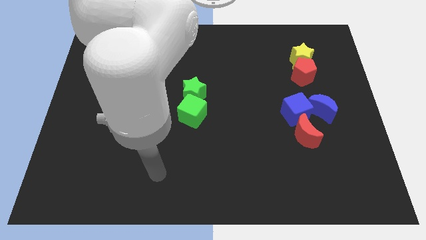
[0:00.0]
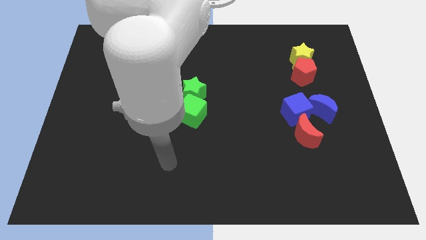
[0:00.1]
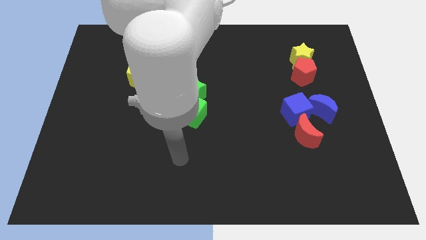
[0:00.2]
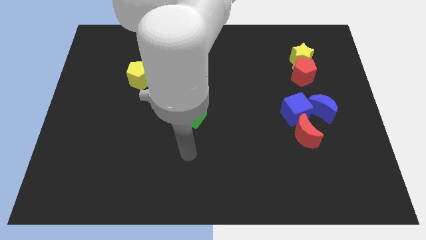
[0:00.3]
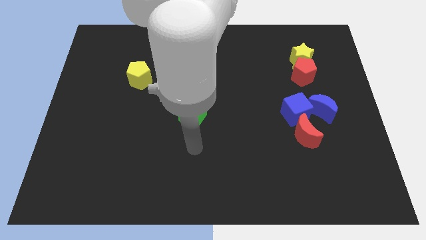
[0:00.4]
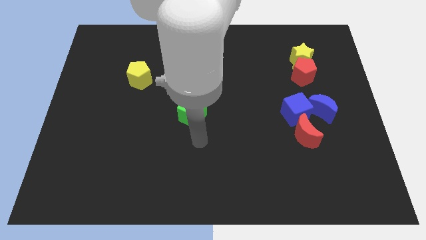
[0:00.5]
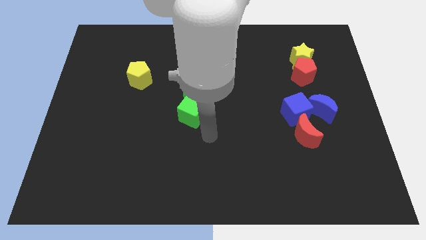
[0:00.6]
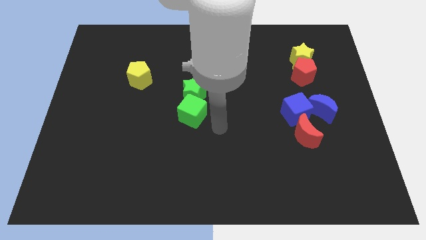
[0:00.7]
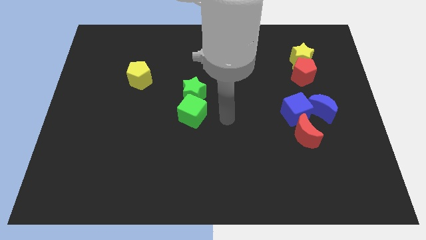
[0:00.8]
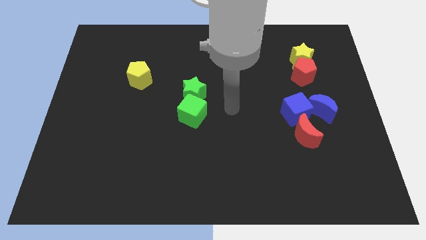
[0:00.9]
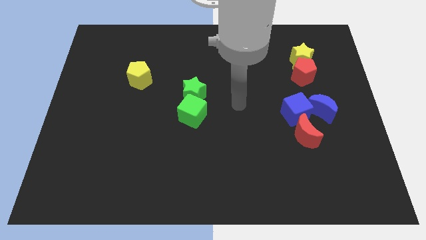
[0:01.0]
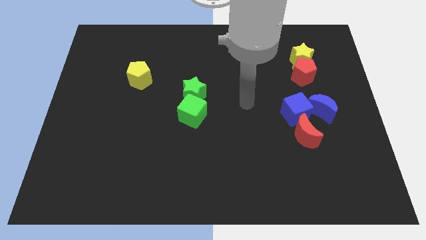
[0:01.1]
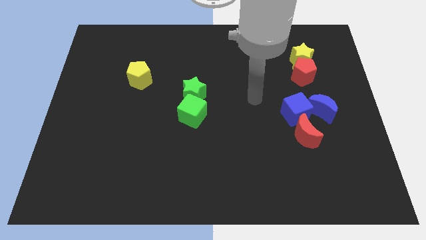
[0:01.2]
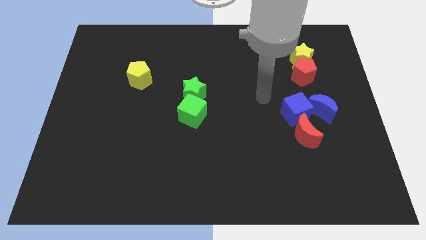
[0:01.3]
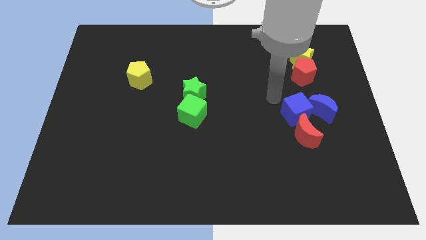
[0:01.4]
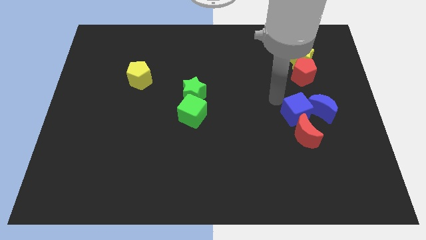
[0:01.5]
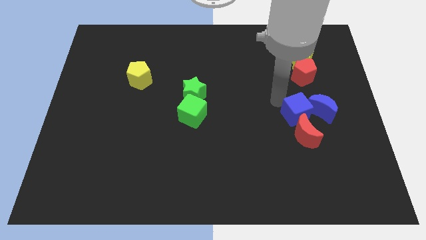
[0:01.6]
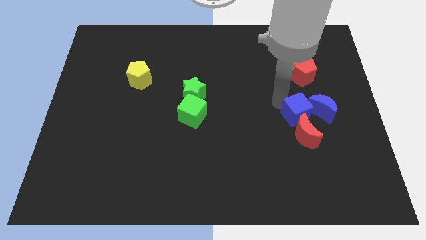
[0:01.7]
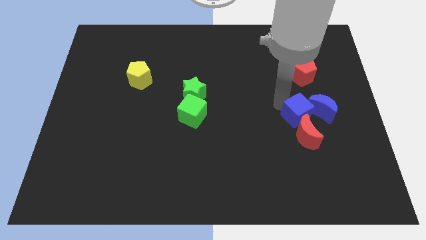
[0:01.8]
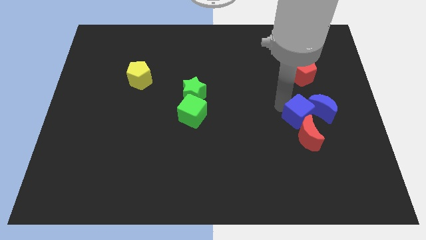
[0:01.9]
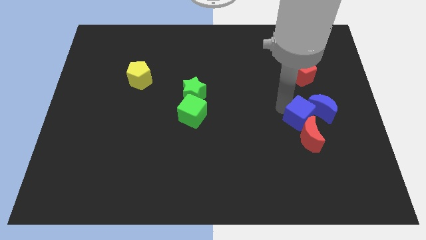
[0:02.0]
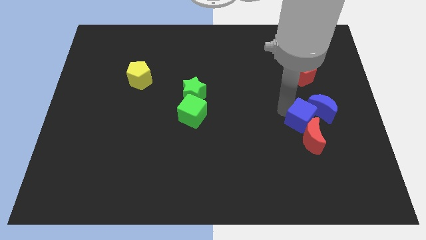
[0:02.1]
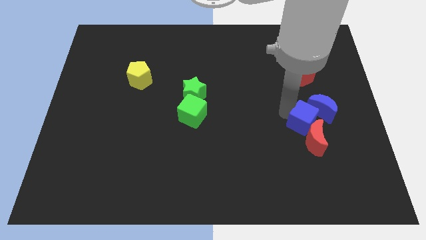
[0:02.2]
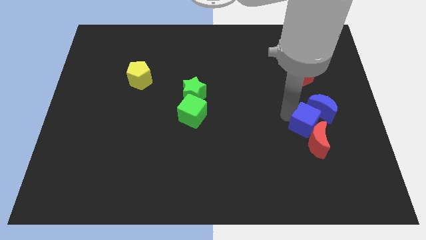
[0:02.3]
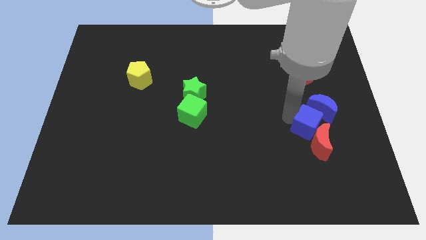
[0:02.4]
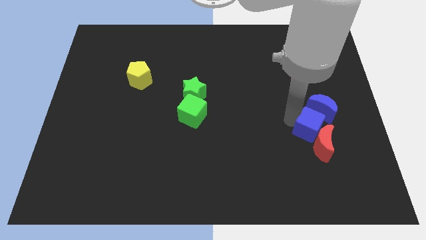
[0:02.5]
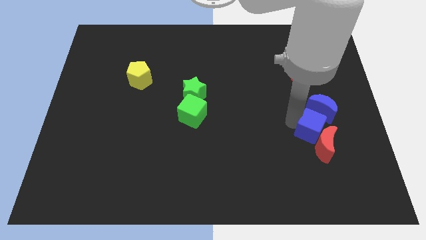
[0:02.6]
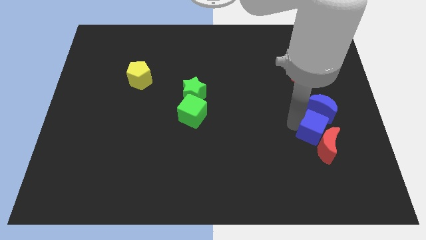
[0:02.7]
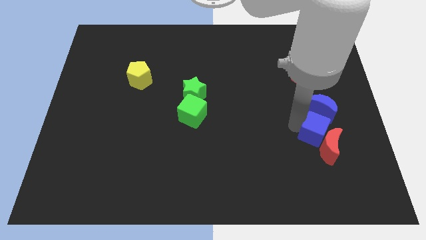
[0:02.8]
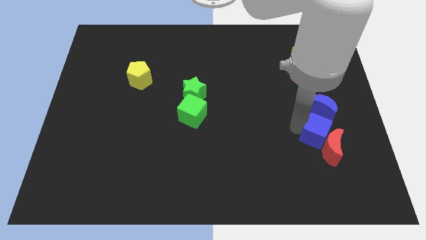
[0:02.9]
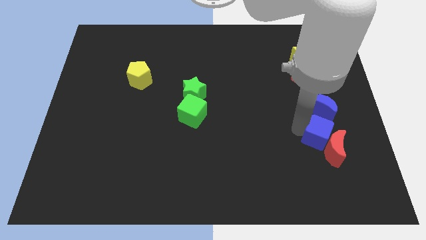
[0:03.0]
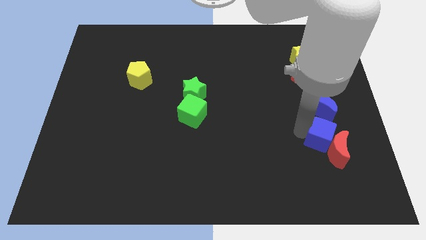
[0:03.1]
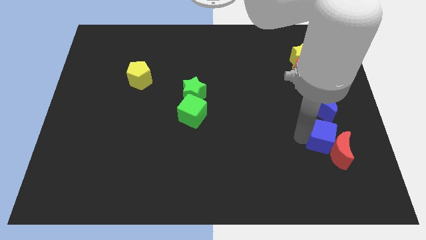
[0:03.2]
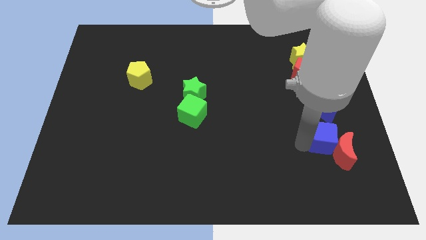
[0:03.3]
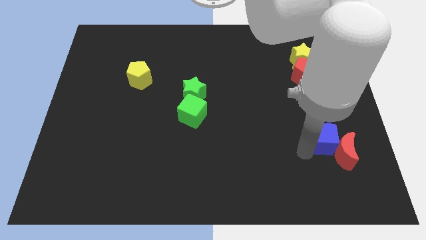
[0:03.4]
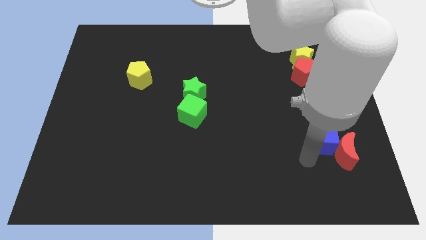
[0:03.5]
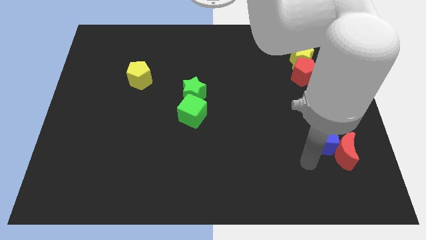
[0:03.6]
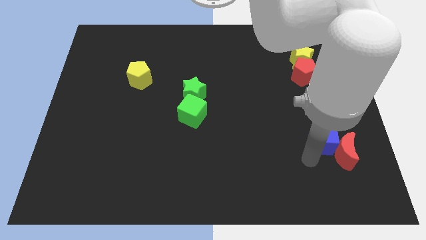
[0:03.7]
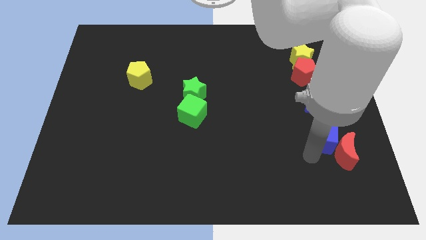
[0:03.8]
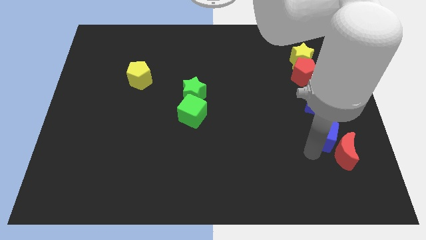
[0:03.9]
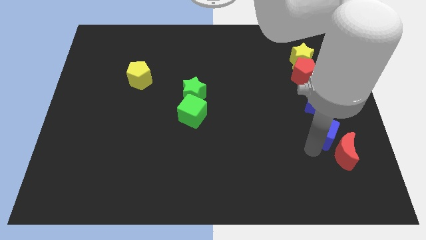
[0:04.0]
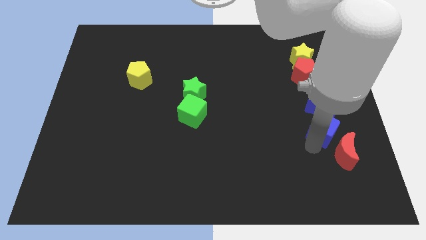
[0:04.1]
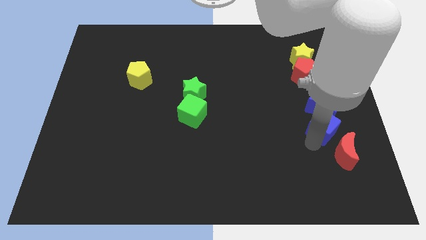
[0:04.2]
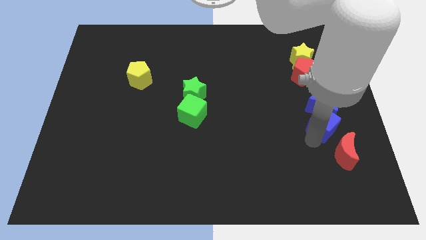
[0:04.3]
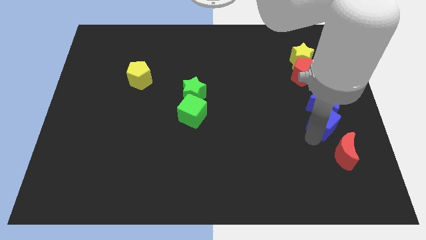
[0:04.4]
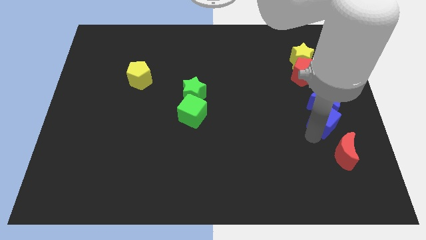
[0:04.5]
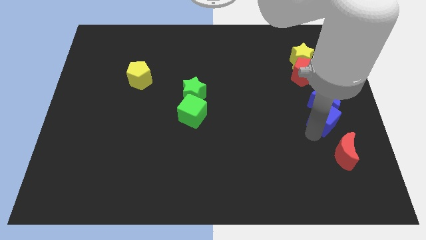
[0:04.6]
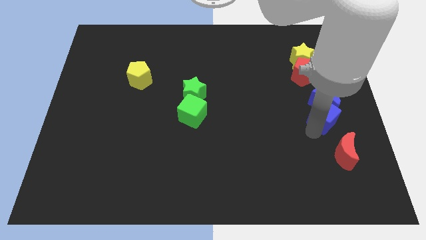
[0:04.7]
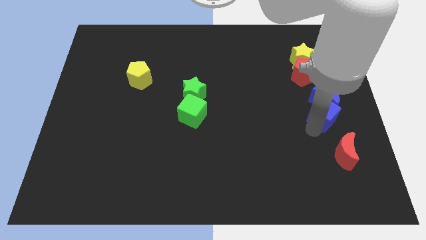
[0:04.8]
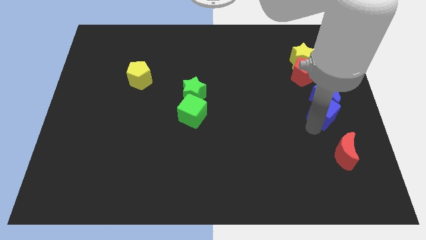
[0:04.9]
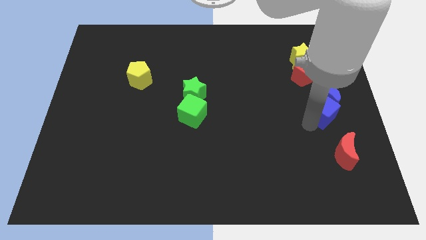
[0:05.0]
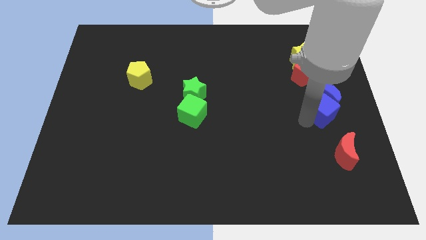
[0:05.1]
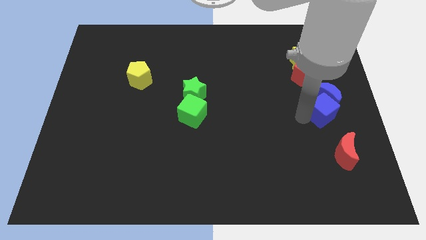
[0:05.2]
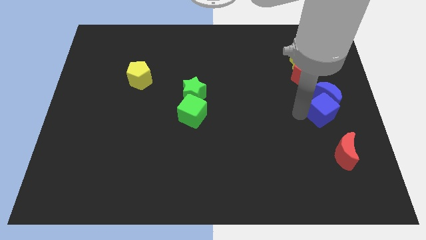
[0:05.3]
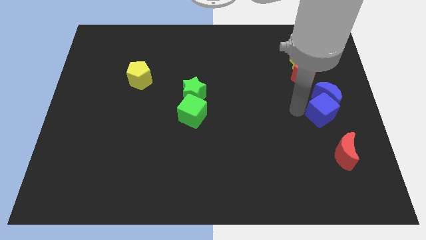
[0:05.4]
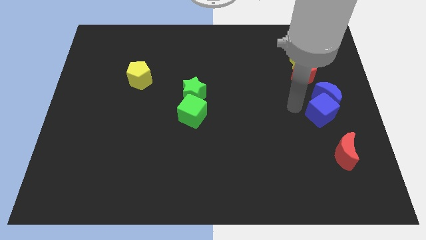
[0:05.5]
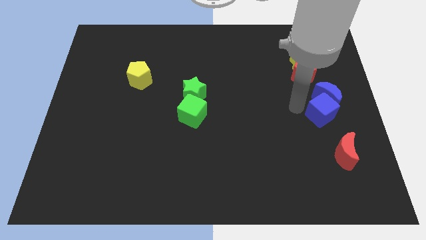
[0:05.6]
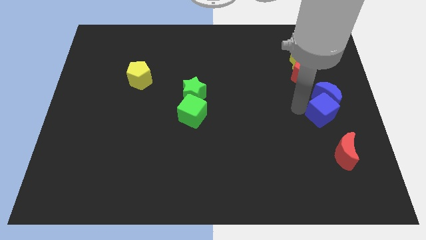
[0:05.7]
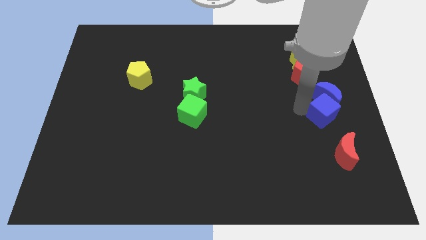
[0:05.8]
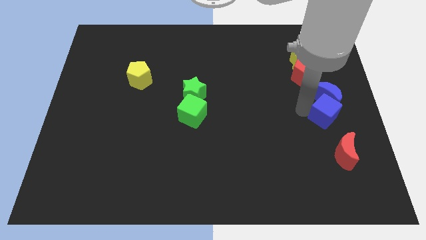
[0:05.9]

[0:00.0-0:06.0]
move the blue cube to the right side of the board
